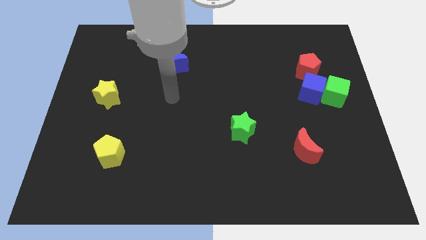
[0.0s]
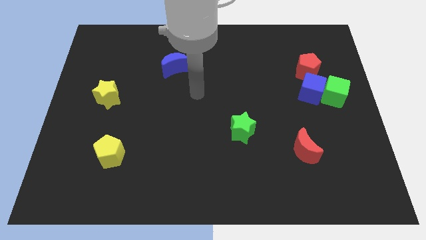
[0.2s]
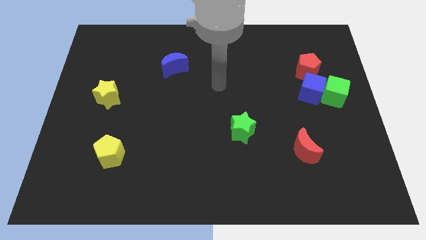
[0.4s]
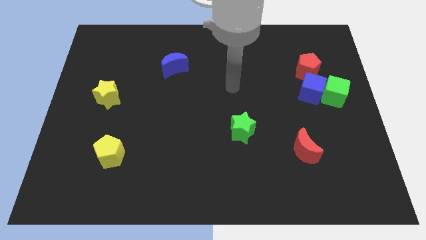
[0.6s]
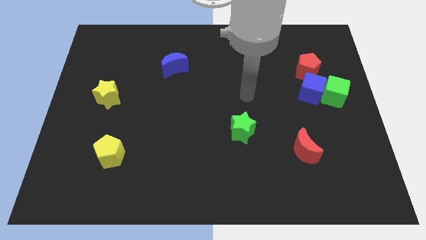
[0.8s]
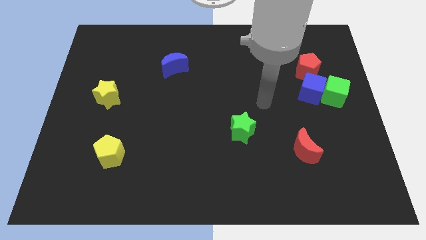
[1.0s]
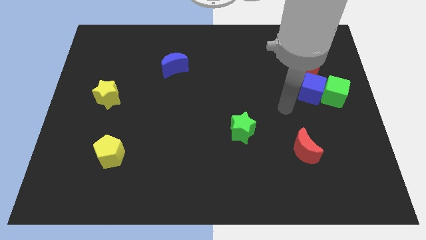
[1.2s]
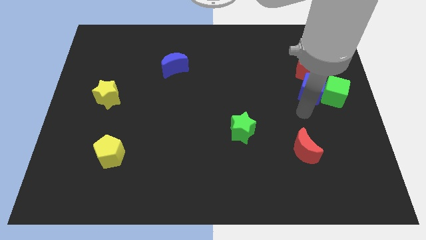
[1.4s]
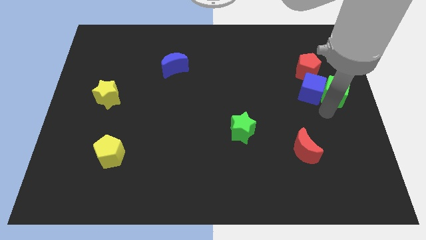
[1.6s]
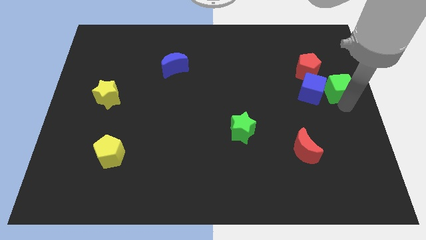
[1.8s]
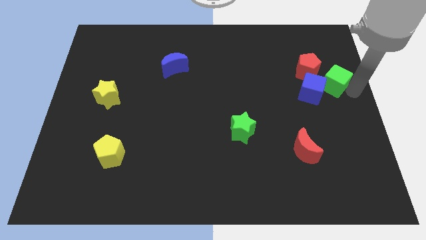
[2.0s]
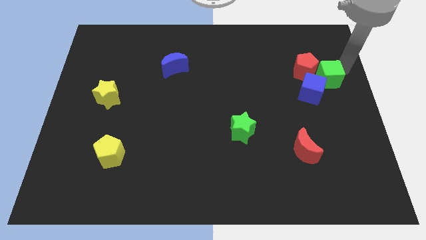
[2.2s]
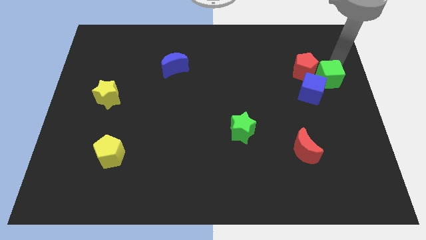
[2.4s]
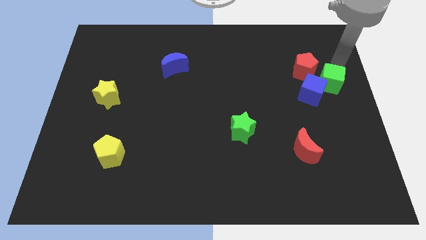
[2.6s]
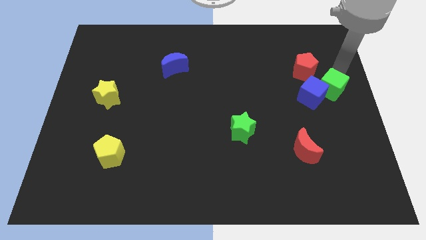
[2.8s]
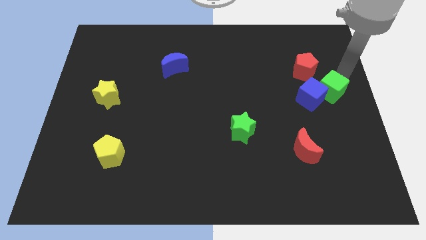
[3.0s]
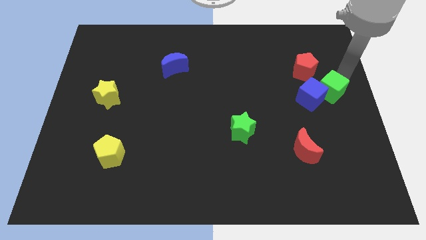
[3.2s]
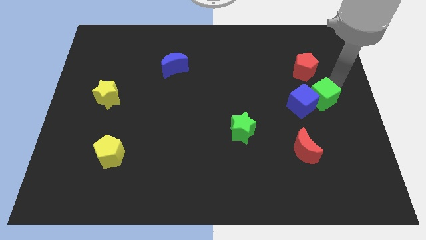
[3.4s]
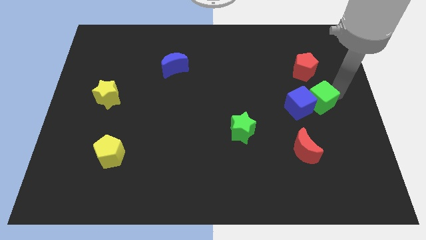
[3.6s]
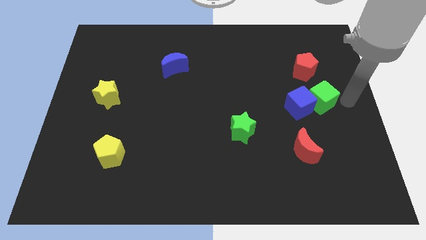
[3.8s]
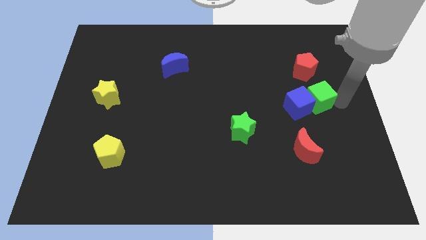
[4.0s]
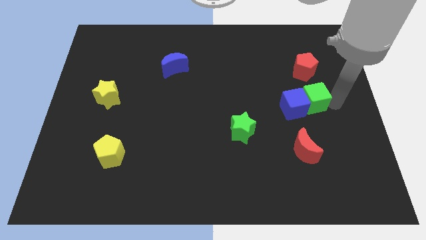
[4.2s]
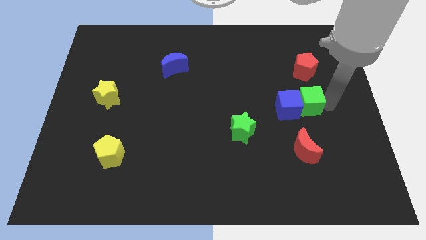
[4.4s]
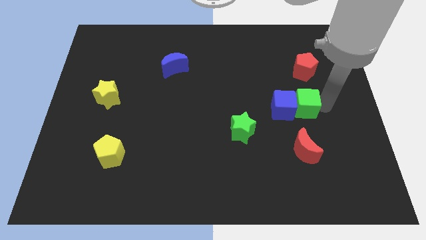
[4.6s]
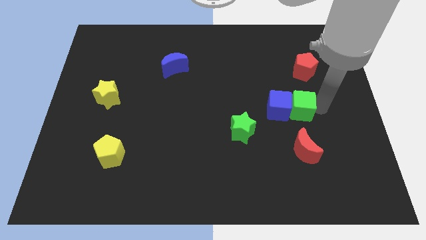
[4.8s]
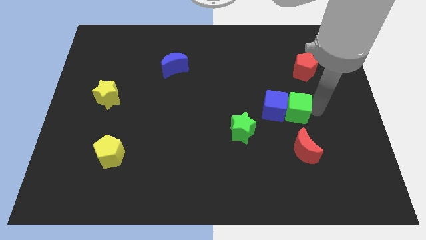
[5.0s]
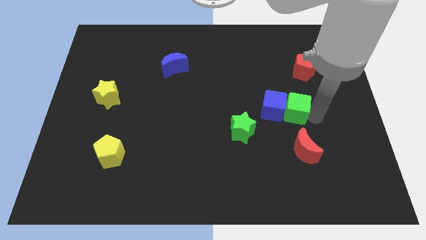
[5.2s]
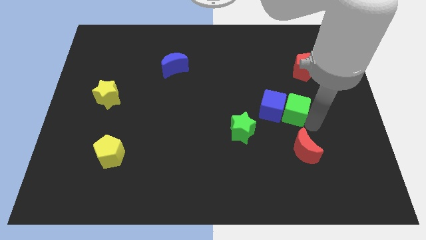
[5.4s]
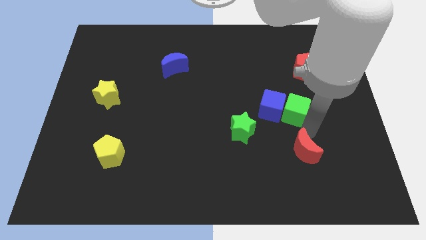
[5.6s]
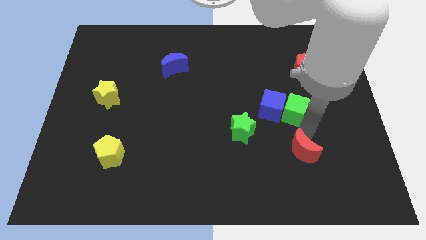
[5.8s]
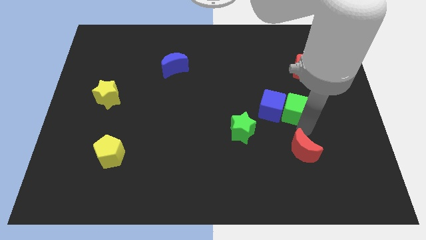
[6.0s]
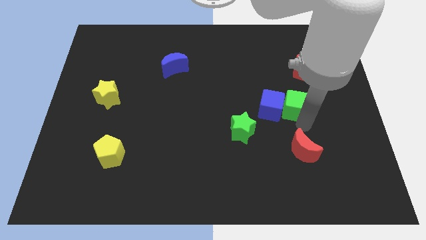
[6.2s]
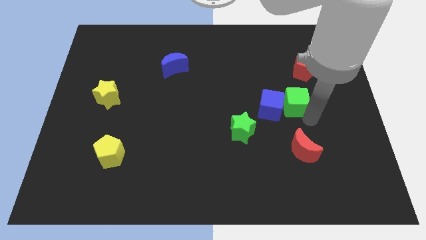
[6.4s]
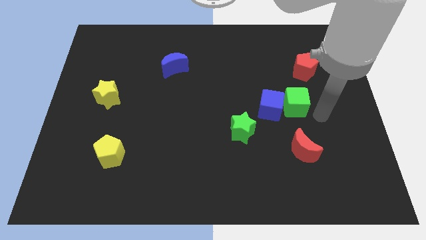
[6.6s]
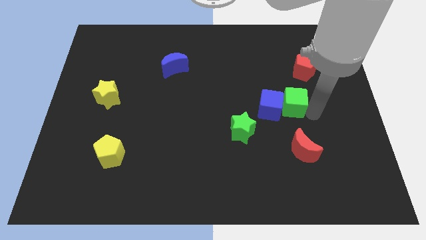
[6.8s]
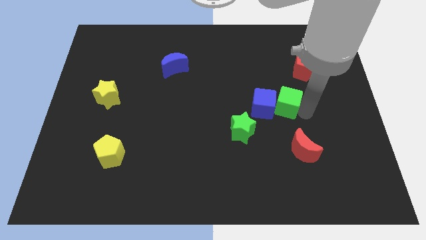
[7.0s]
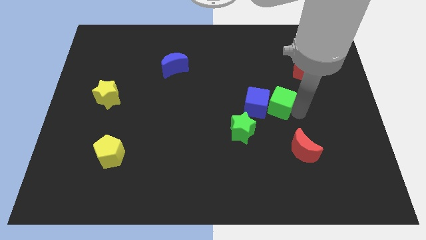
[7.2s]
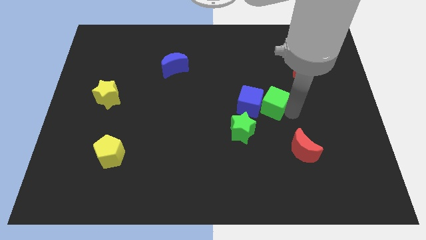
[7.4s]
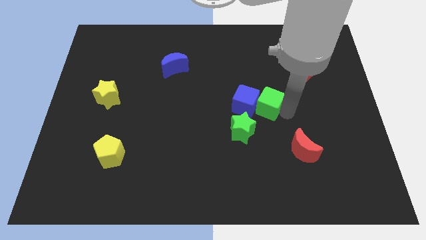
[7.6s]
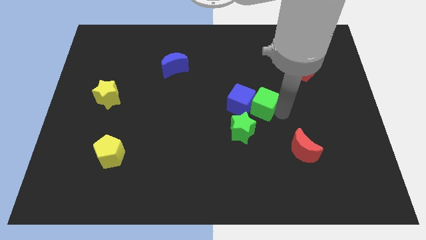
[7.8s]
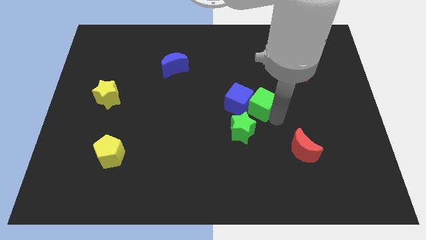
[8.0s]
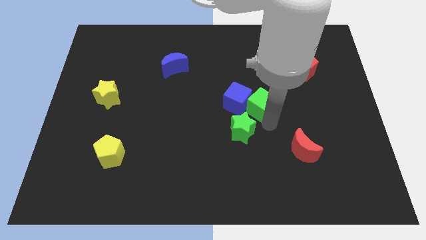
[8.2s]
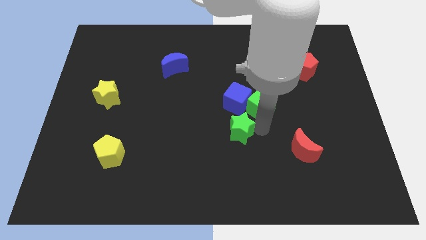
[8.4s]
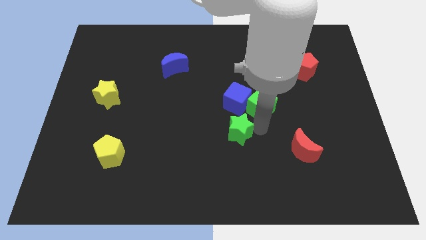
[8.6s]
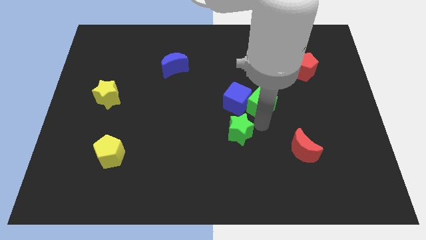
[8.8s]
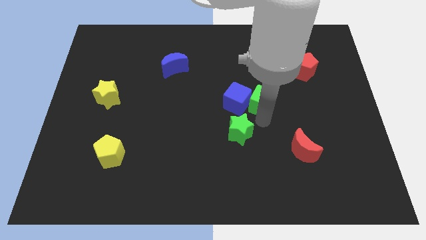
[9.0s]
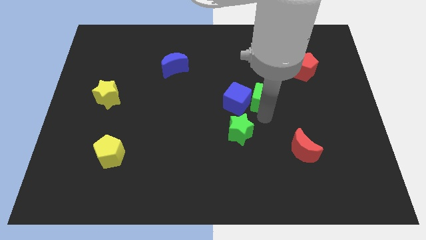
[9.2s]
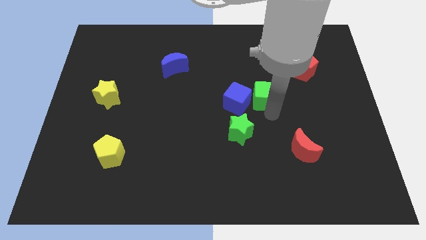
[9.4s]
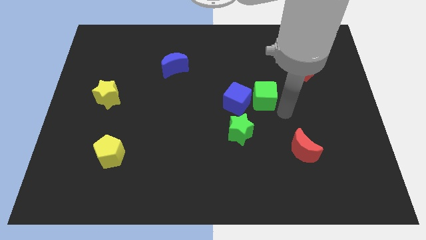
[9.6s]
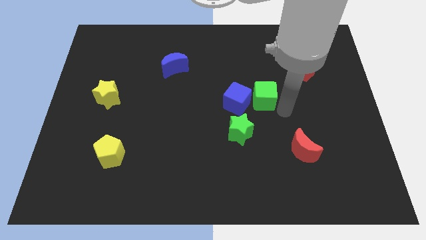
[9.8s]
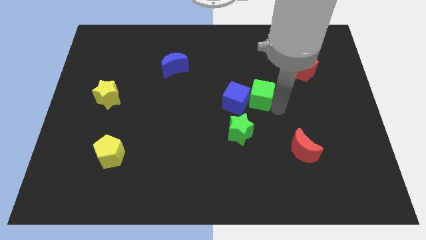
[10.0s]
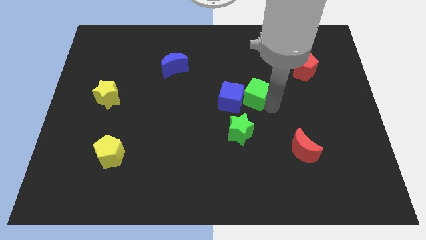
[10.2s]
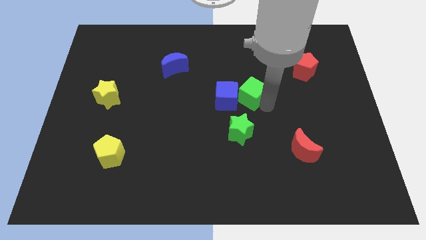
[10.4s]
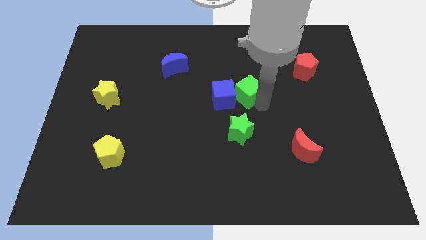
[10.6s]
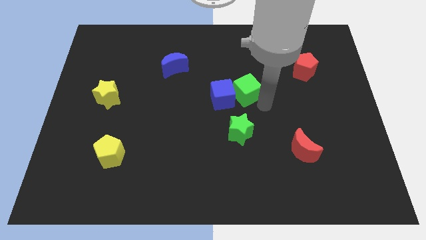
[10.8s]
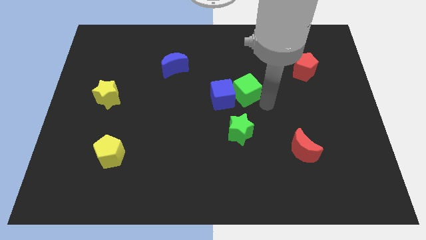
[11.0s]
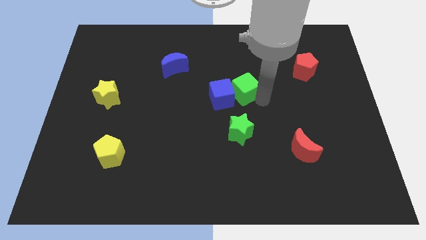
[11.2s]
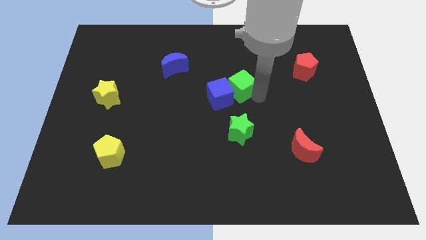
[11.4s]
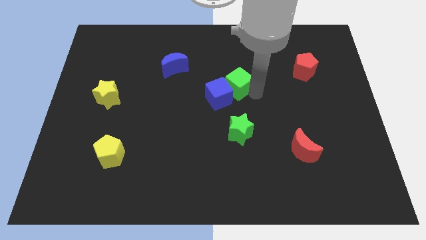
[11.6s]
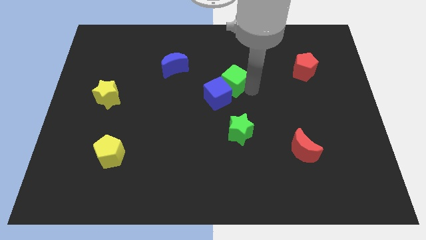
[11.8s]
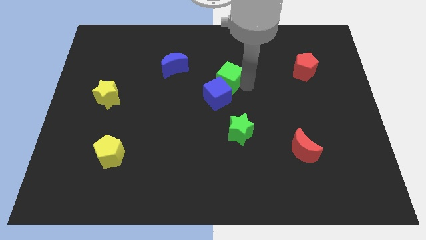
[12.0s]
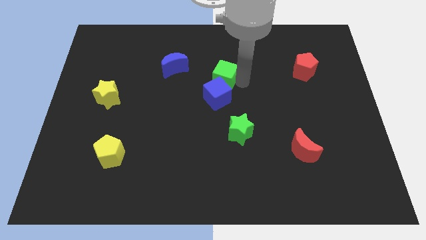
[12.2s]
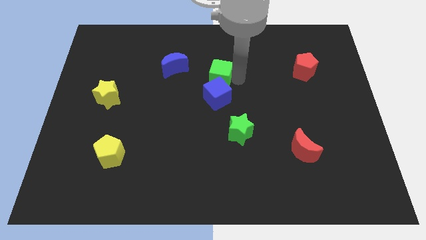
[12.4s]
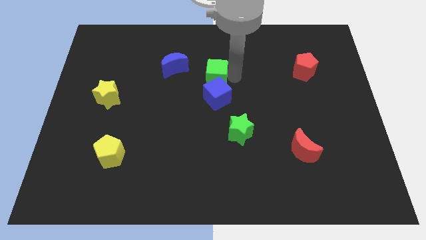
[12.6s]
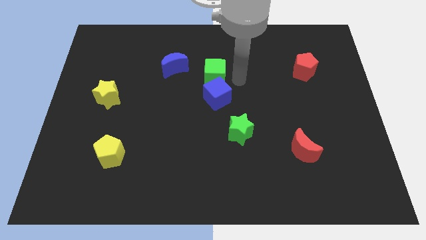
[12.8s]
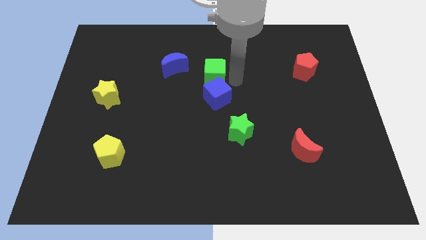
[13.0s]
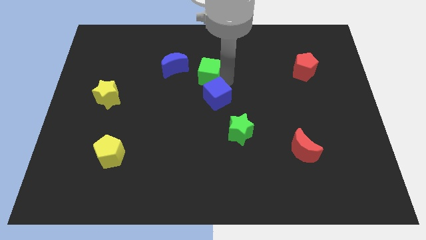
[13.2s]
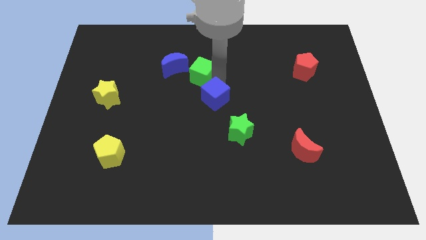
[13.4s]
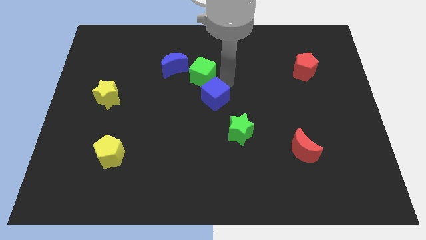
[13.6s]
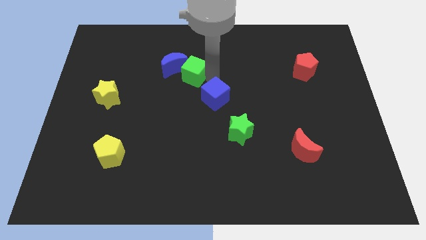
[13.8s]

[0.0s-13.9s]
push the green cube next to the blue moon

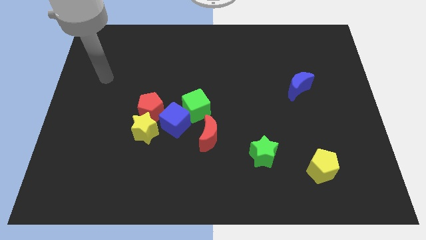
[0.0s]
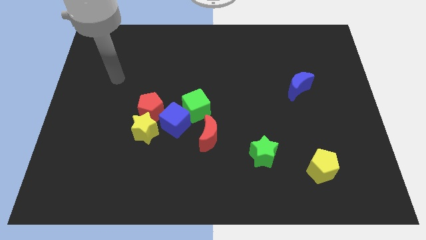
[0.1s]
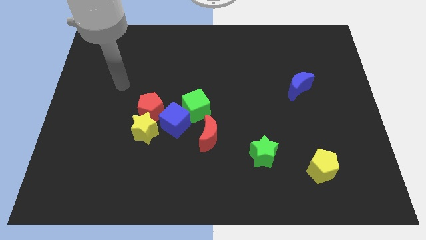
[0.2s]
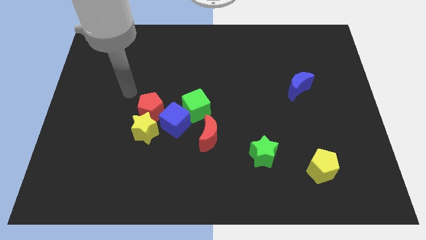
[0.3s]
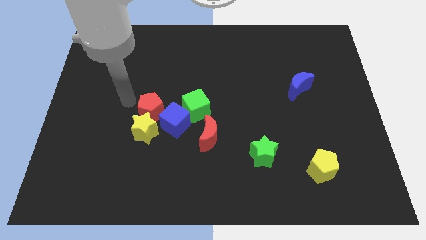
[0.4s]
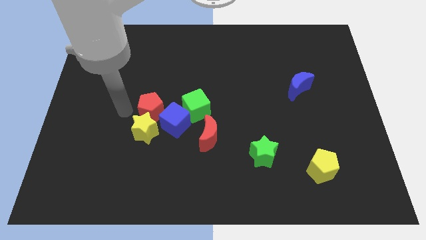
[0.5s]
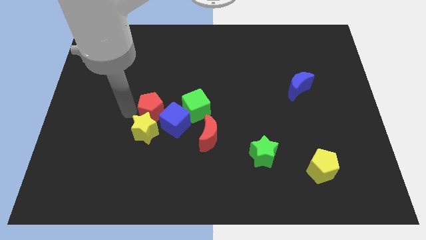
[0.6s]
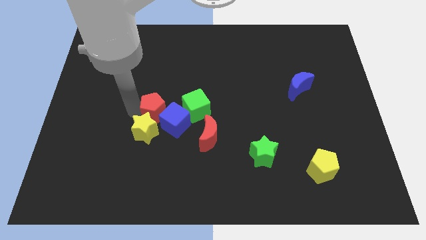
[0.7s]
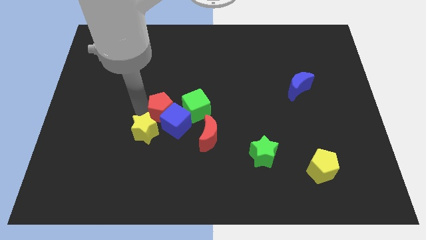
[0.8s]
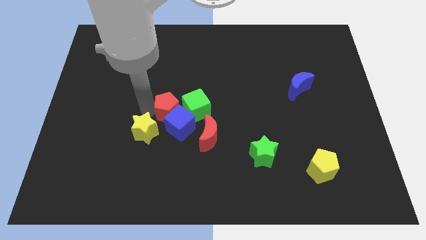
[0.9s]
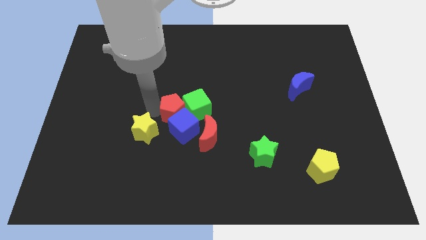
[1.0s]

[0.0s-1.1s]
push the red pentagon close to the green cube
